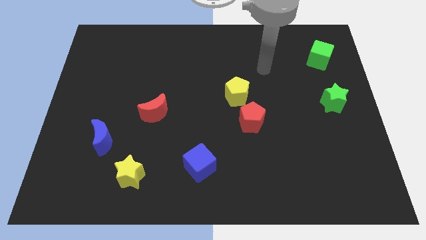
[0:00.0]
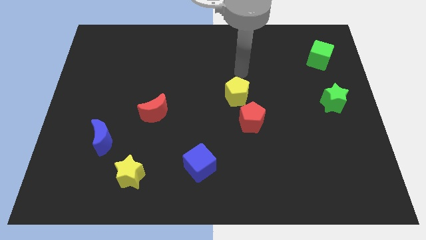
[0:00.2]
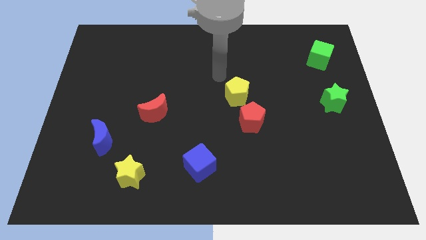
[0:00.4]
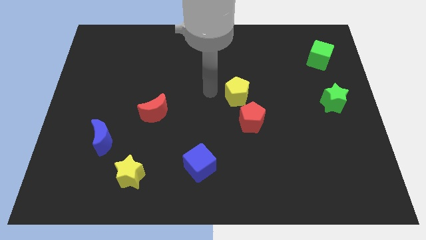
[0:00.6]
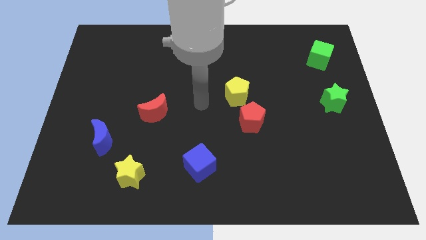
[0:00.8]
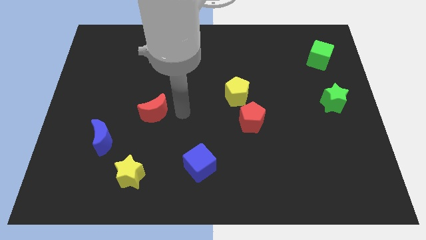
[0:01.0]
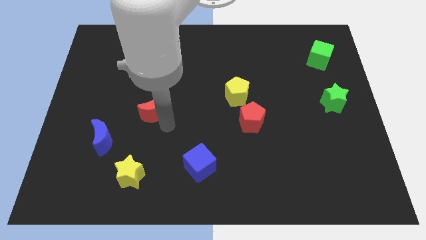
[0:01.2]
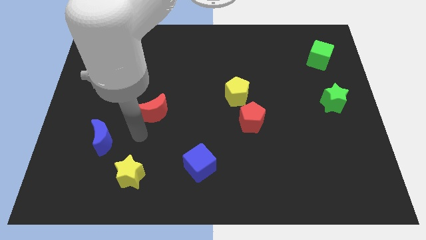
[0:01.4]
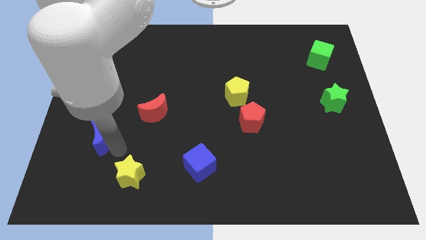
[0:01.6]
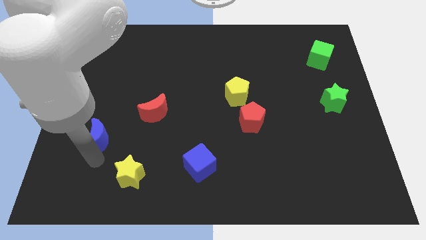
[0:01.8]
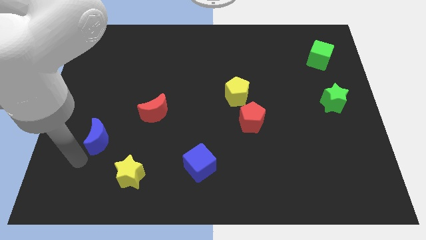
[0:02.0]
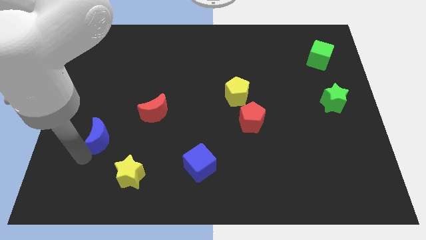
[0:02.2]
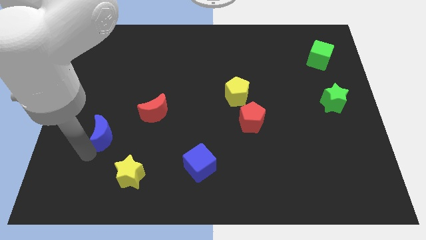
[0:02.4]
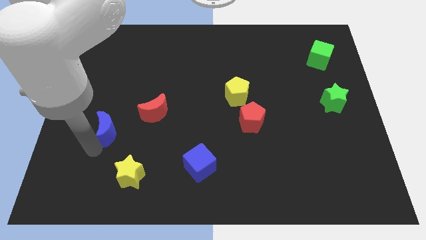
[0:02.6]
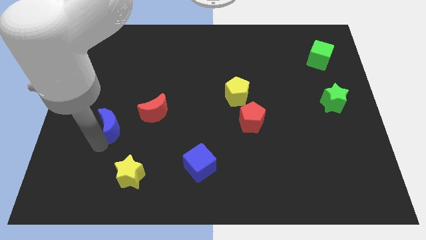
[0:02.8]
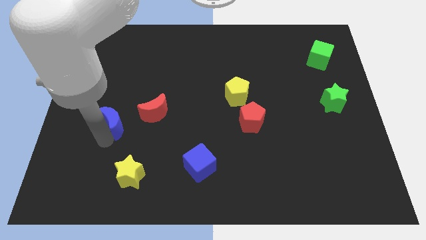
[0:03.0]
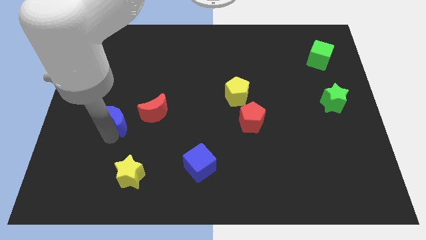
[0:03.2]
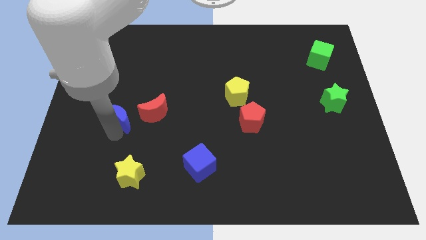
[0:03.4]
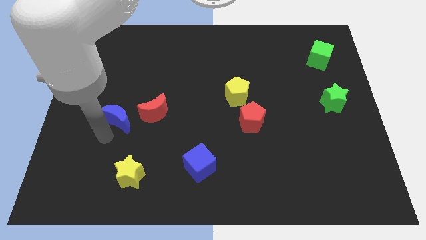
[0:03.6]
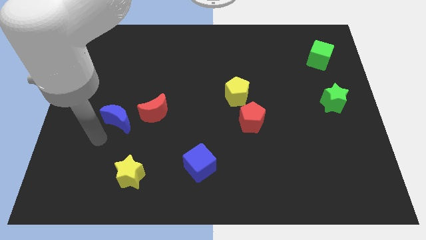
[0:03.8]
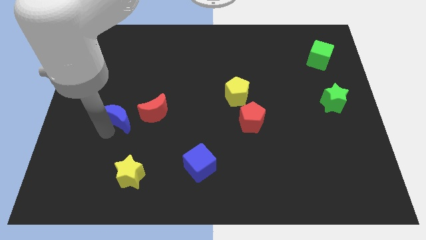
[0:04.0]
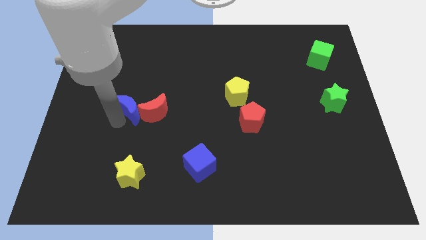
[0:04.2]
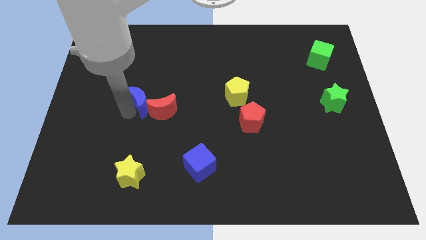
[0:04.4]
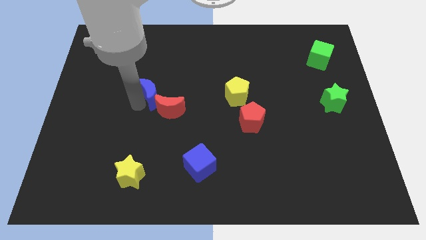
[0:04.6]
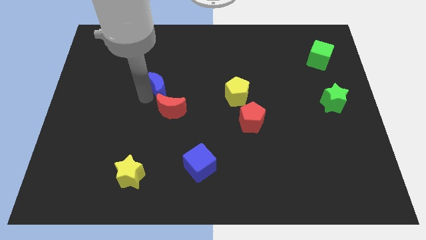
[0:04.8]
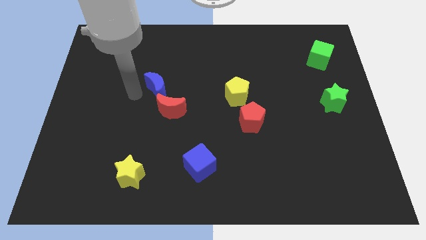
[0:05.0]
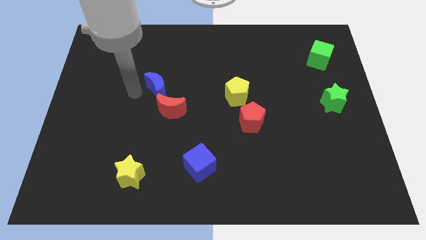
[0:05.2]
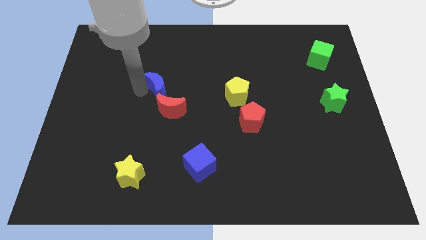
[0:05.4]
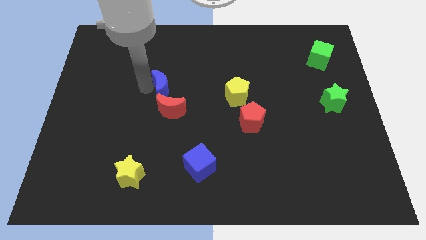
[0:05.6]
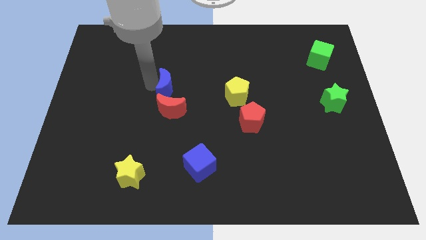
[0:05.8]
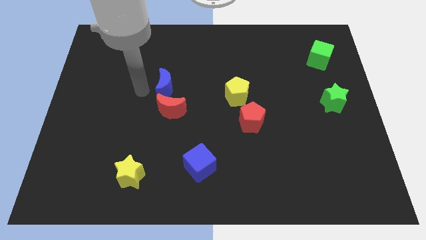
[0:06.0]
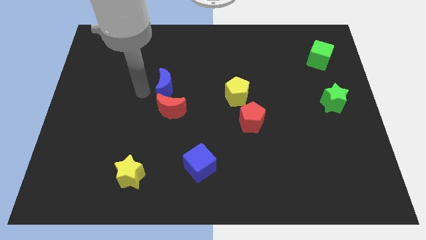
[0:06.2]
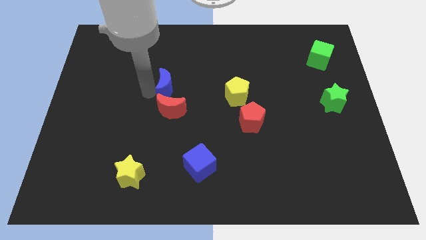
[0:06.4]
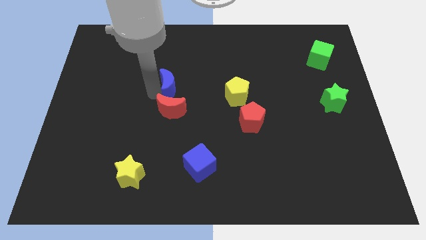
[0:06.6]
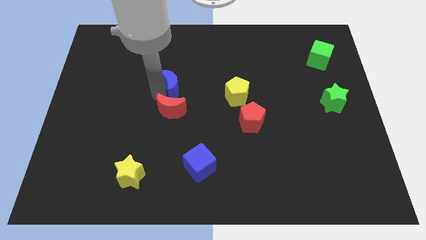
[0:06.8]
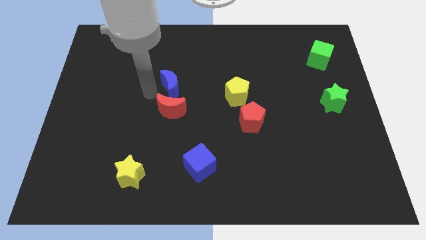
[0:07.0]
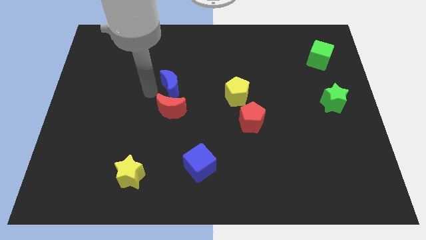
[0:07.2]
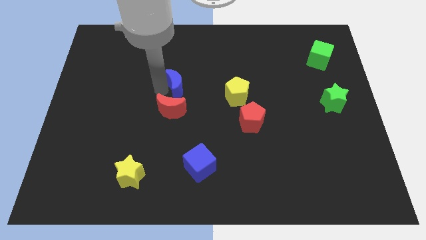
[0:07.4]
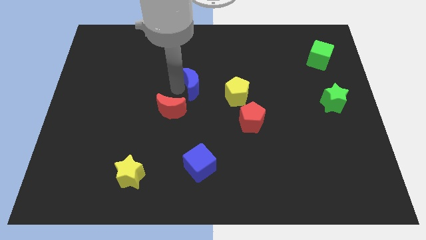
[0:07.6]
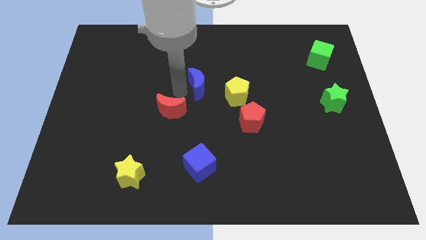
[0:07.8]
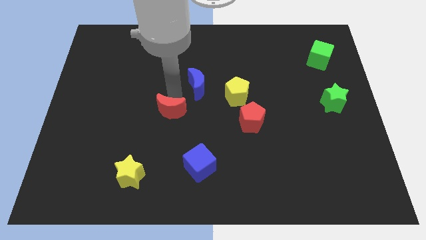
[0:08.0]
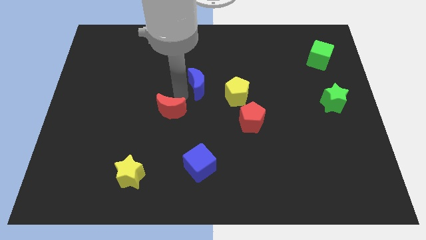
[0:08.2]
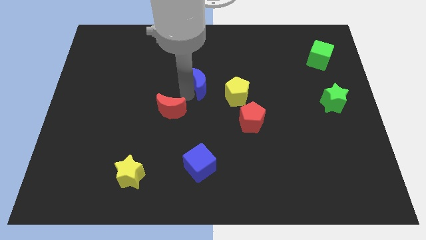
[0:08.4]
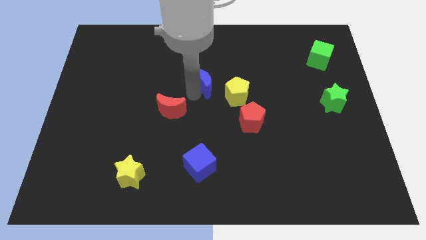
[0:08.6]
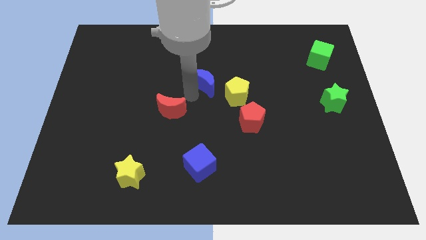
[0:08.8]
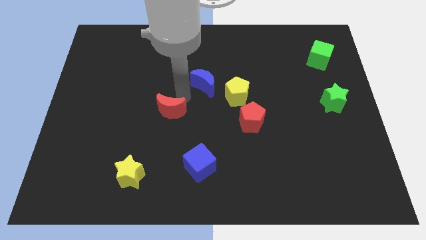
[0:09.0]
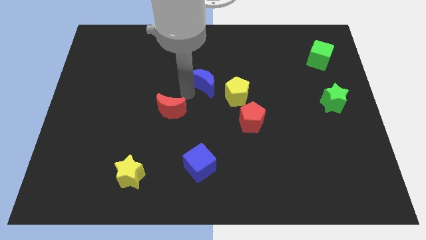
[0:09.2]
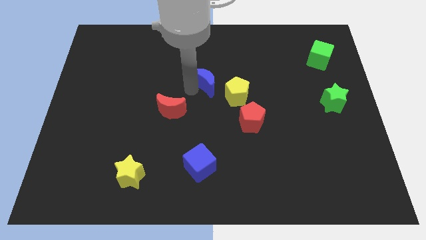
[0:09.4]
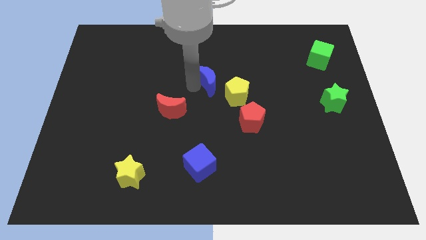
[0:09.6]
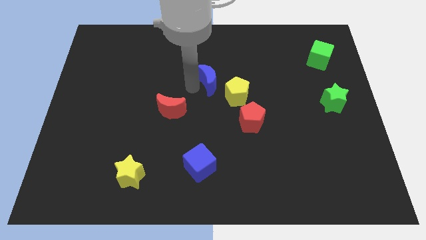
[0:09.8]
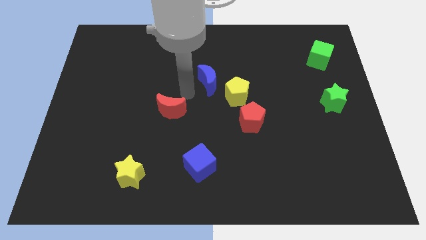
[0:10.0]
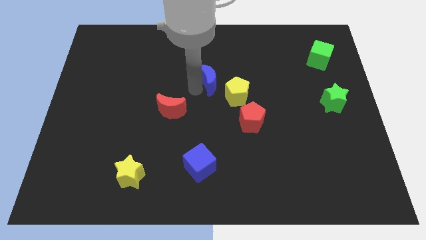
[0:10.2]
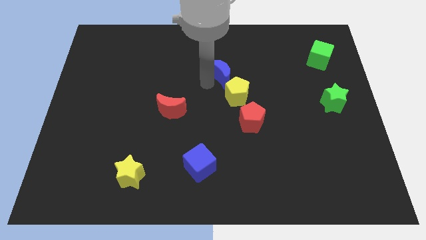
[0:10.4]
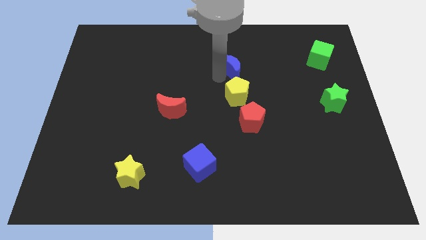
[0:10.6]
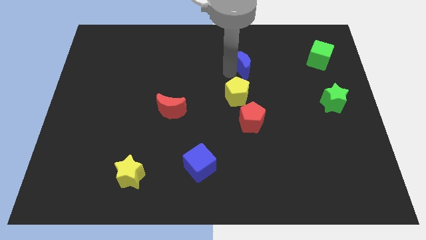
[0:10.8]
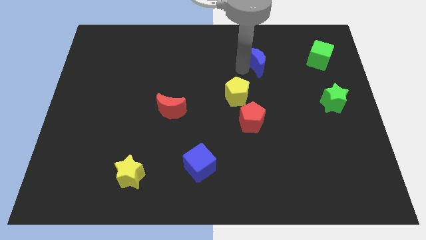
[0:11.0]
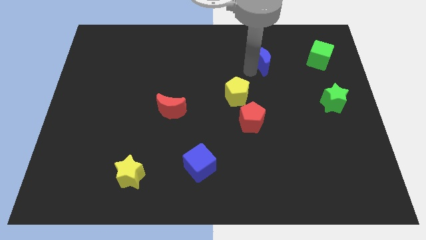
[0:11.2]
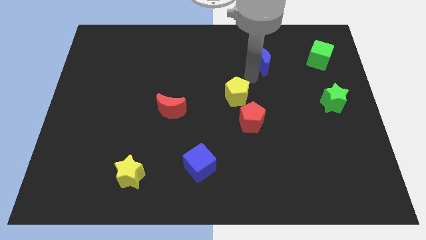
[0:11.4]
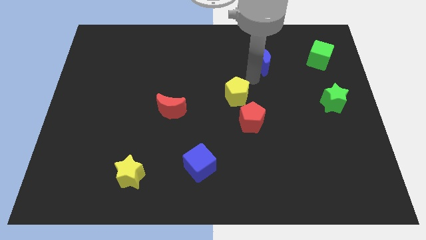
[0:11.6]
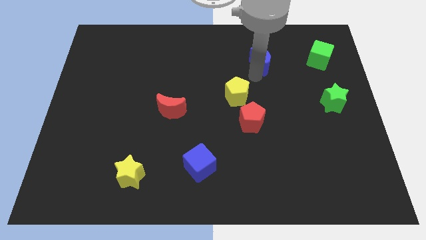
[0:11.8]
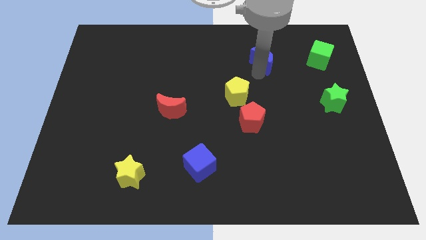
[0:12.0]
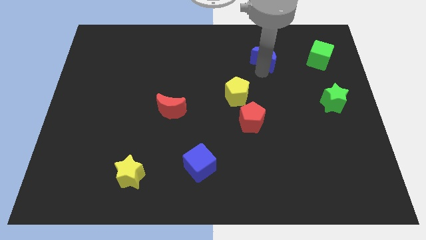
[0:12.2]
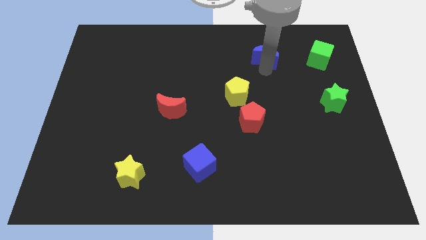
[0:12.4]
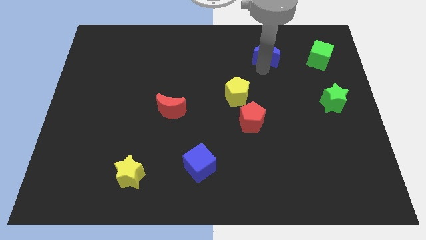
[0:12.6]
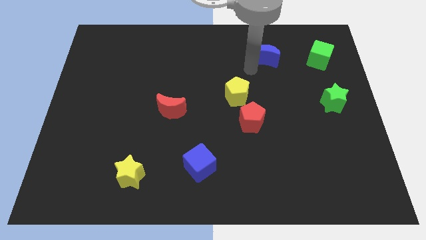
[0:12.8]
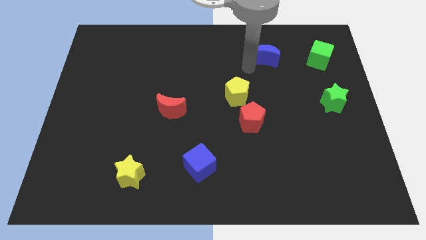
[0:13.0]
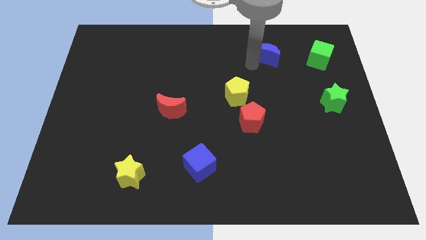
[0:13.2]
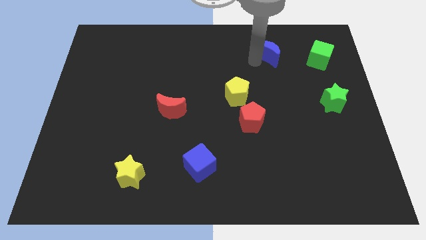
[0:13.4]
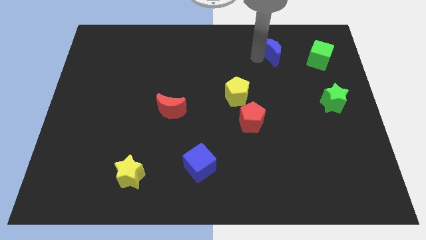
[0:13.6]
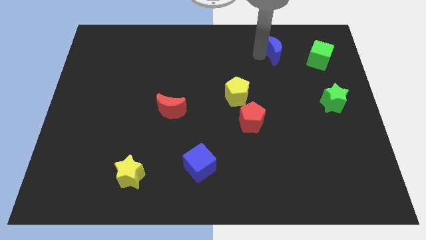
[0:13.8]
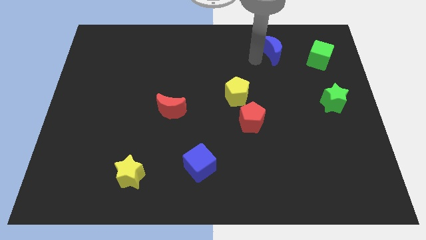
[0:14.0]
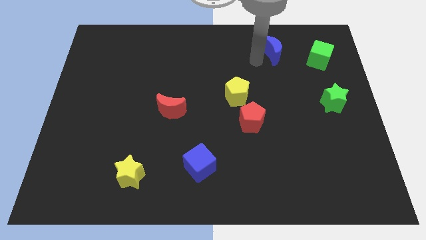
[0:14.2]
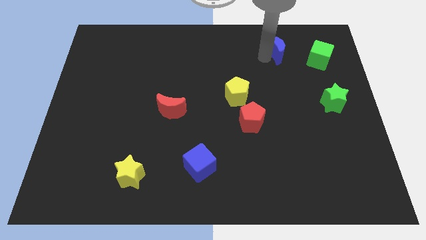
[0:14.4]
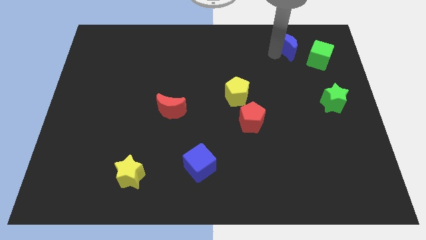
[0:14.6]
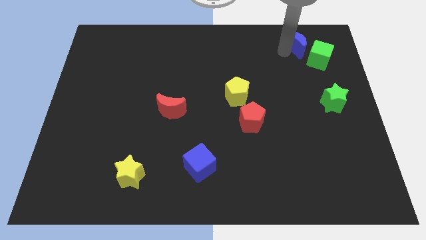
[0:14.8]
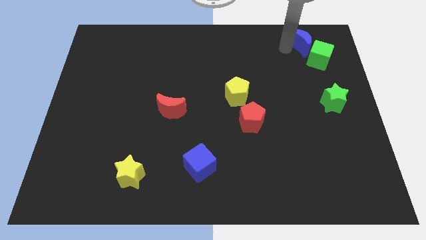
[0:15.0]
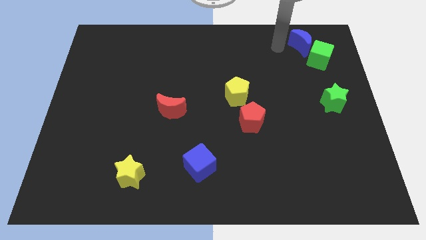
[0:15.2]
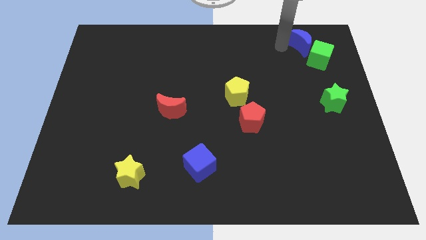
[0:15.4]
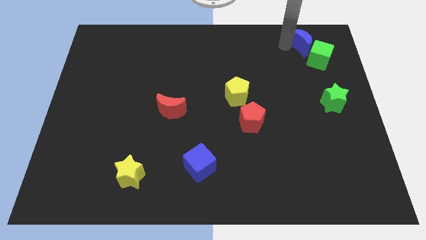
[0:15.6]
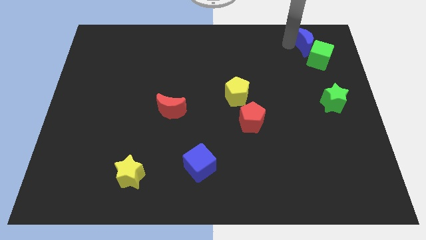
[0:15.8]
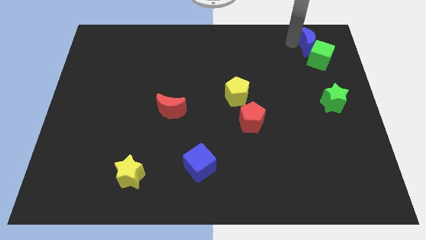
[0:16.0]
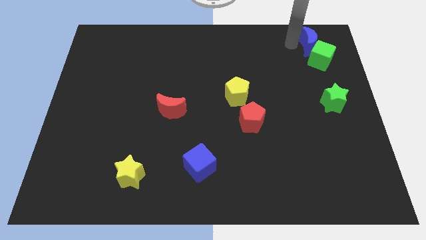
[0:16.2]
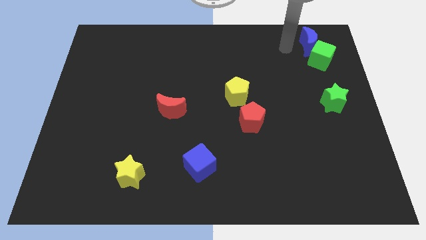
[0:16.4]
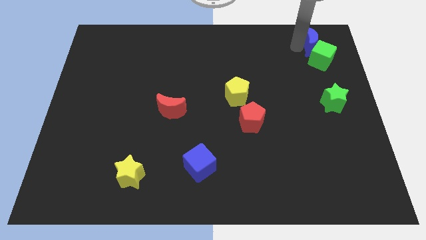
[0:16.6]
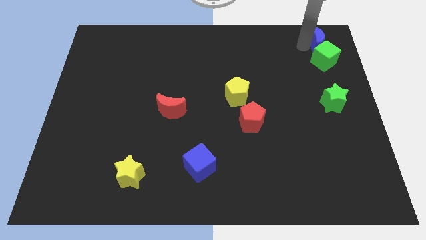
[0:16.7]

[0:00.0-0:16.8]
push the blue moon to the upper right corner
